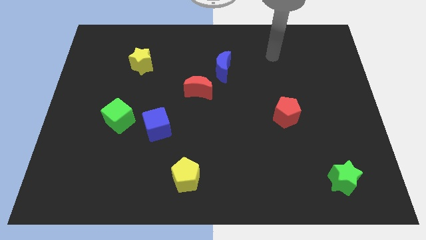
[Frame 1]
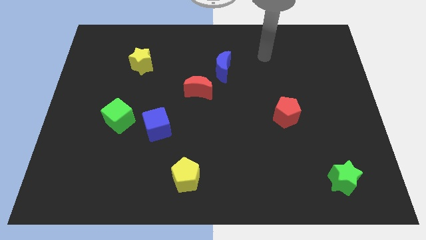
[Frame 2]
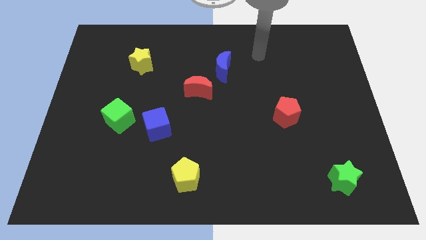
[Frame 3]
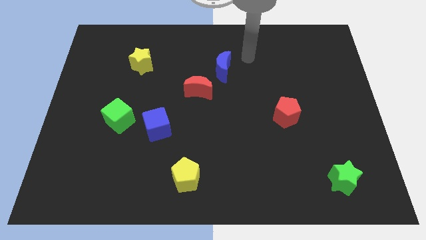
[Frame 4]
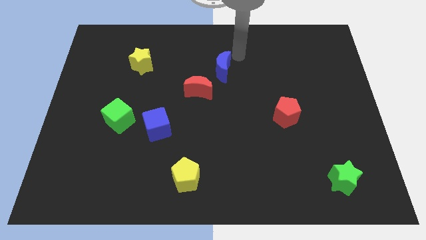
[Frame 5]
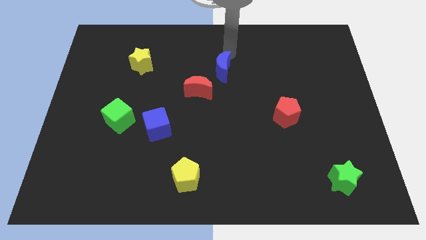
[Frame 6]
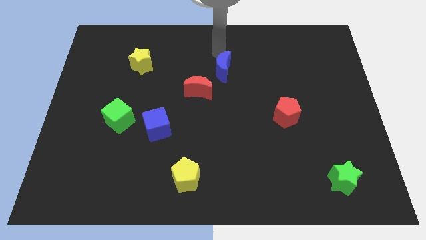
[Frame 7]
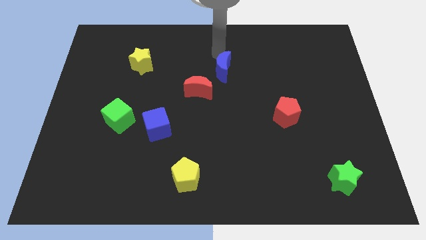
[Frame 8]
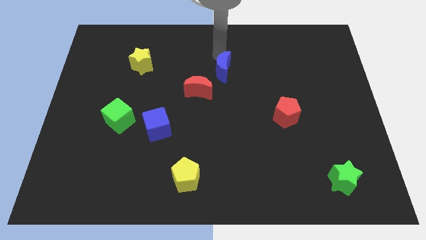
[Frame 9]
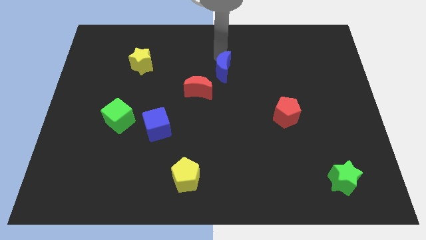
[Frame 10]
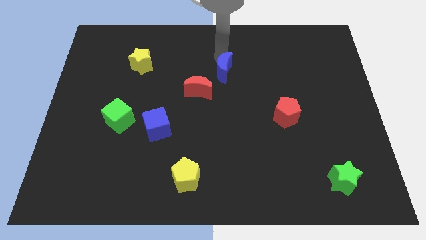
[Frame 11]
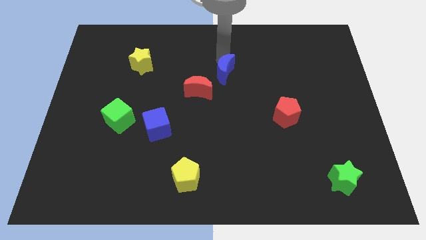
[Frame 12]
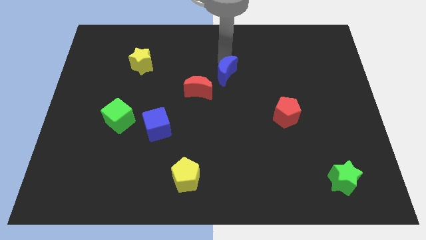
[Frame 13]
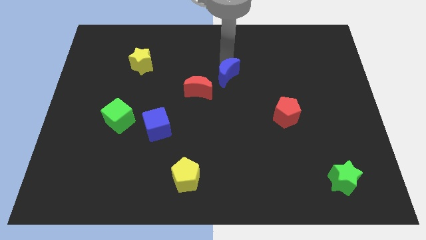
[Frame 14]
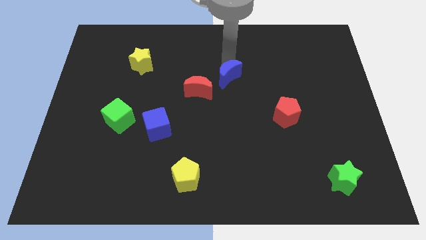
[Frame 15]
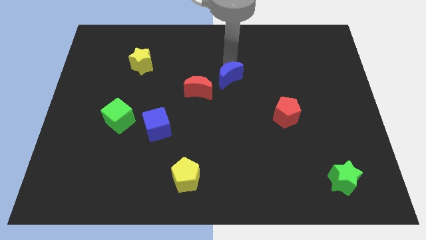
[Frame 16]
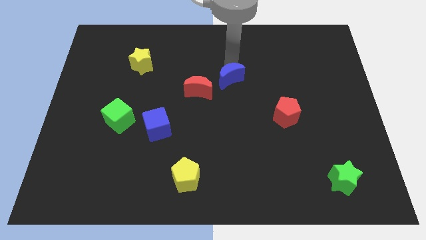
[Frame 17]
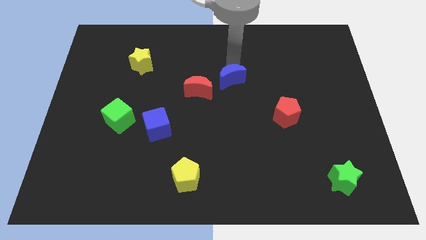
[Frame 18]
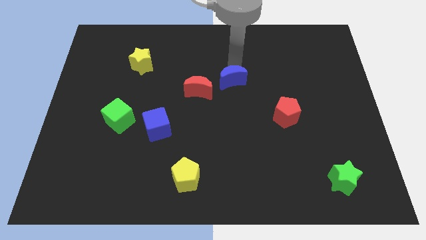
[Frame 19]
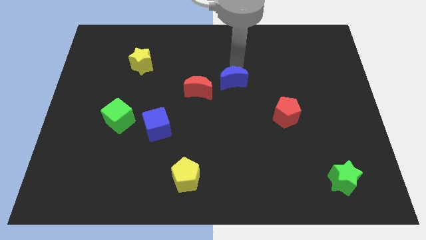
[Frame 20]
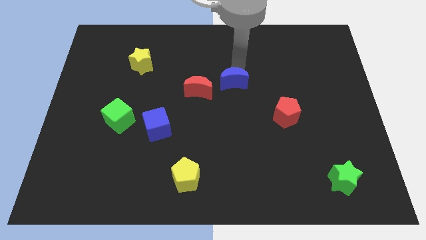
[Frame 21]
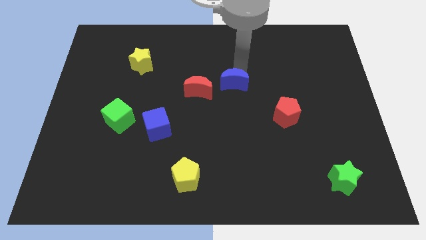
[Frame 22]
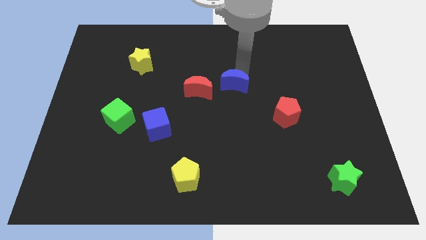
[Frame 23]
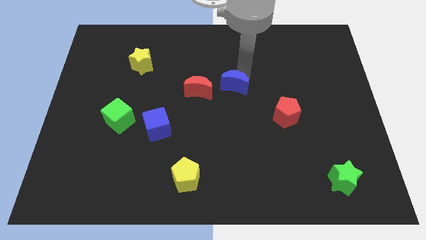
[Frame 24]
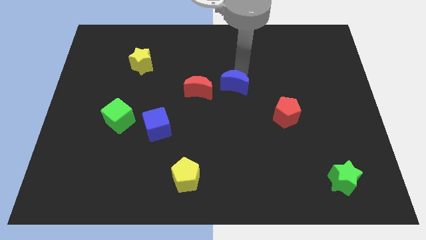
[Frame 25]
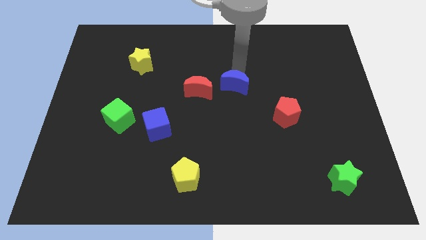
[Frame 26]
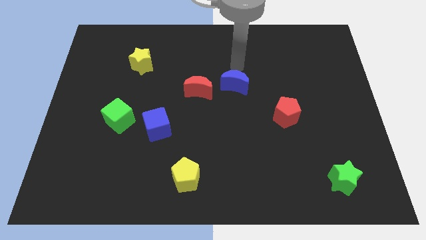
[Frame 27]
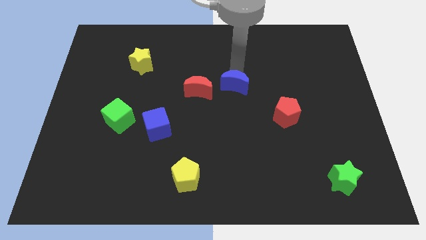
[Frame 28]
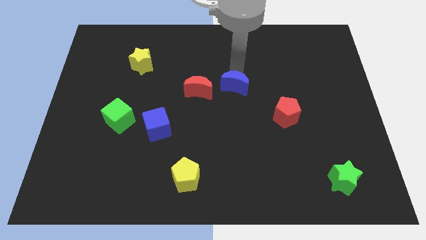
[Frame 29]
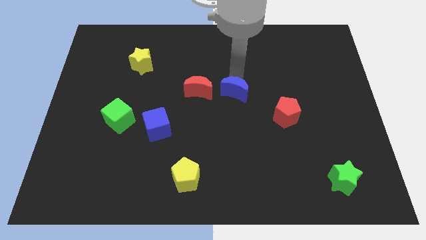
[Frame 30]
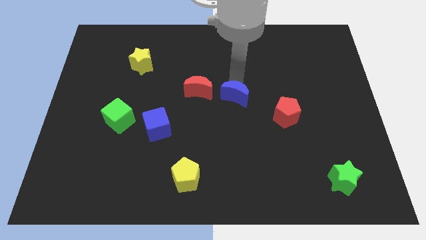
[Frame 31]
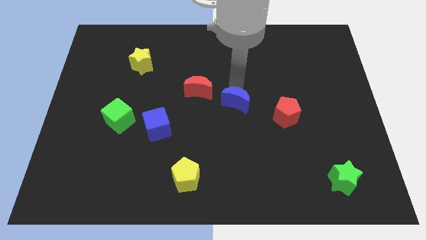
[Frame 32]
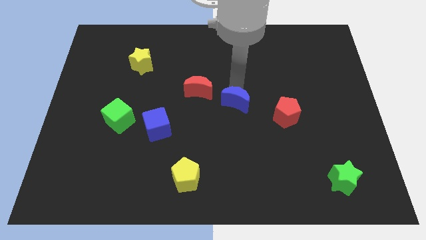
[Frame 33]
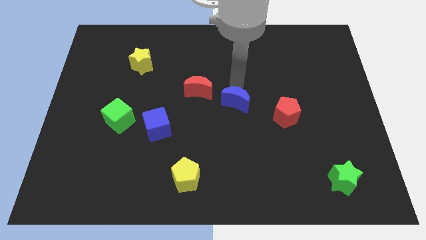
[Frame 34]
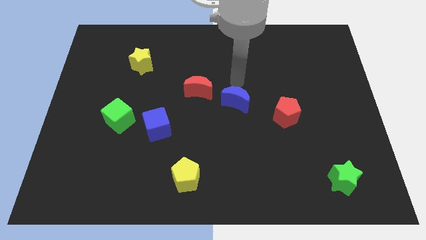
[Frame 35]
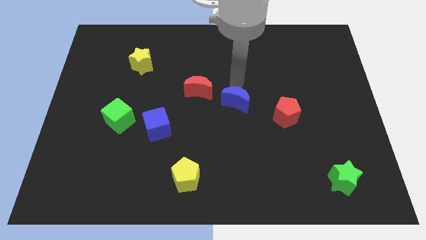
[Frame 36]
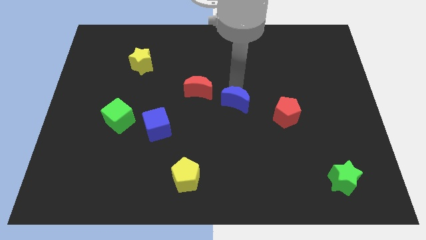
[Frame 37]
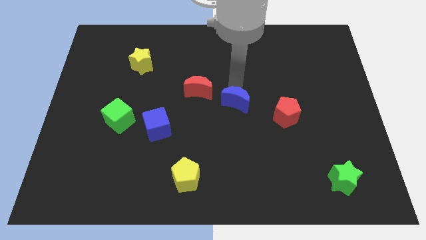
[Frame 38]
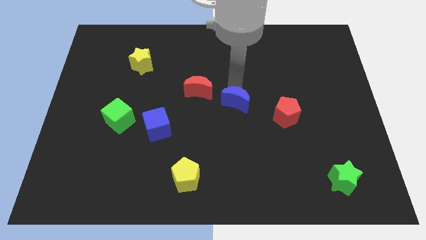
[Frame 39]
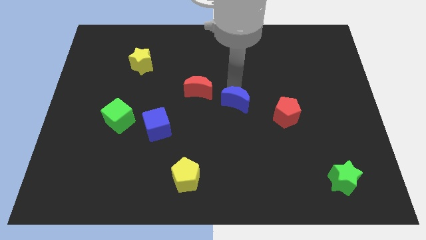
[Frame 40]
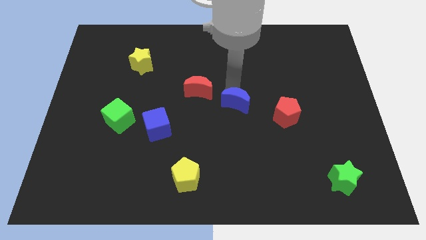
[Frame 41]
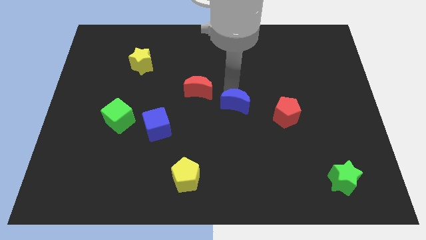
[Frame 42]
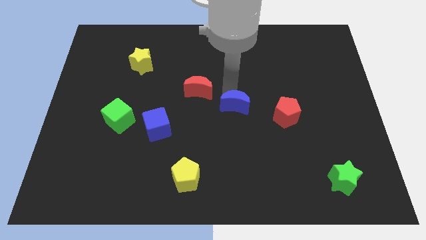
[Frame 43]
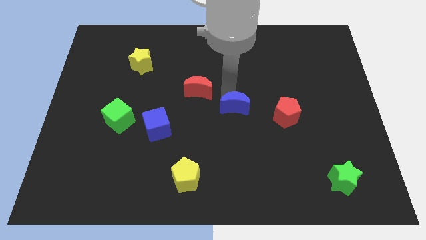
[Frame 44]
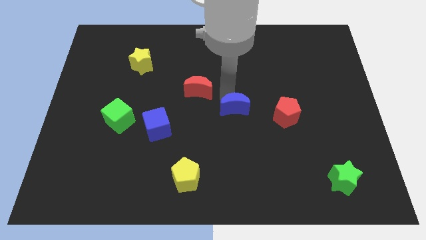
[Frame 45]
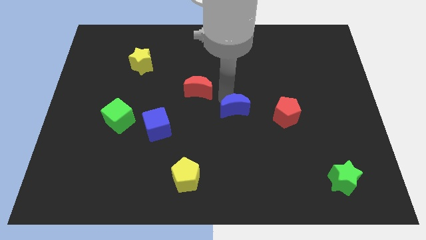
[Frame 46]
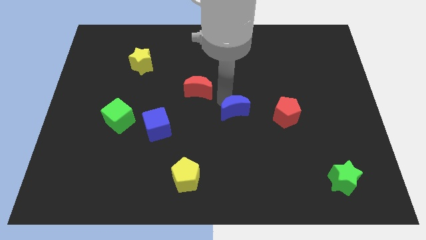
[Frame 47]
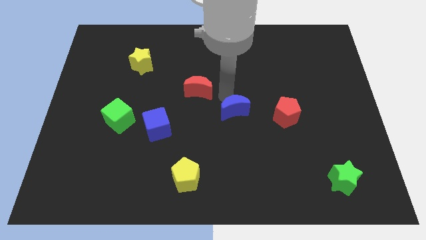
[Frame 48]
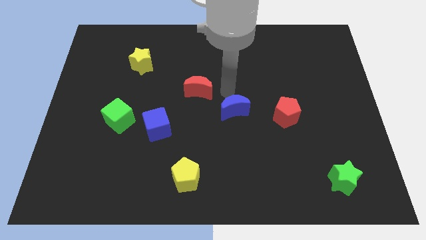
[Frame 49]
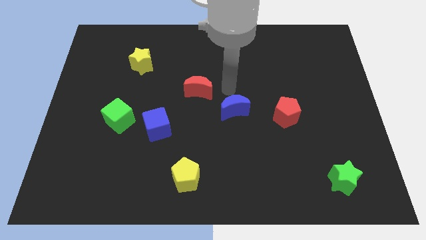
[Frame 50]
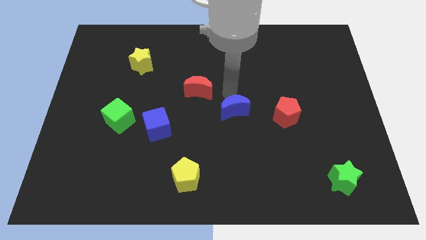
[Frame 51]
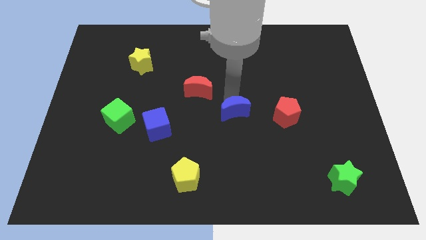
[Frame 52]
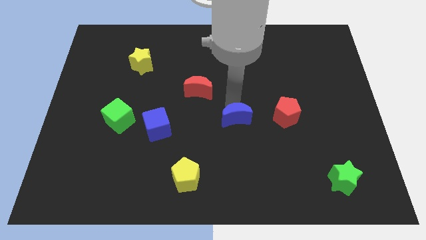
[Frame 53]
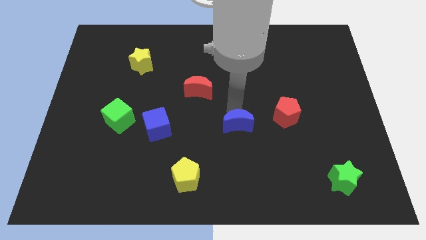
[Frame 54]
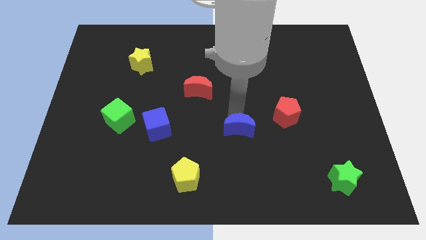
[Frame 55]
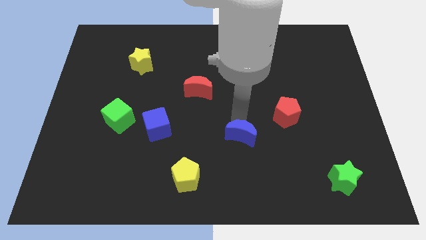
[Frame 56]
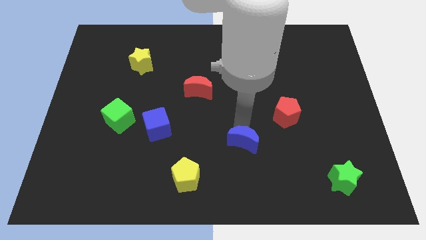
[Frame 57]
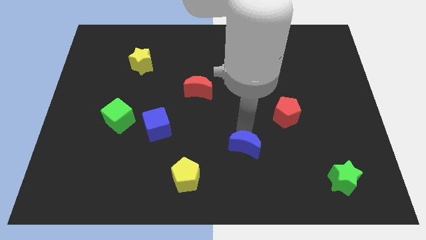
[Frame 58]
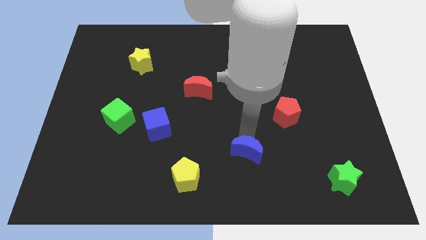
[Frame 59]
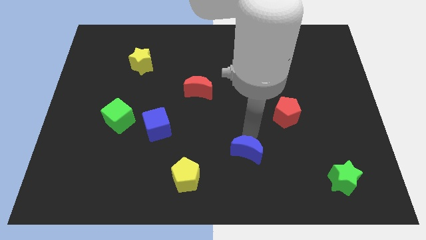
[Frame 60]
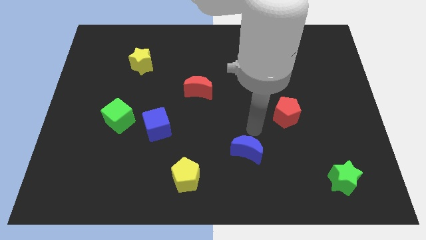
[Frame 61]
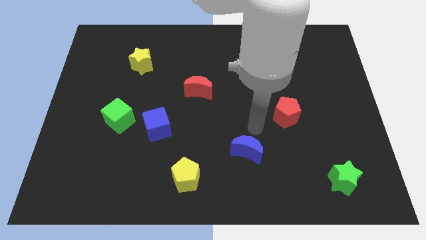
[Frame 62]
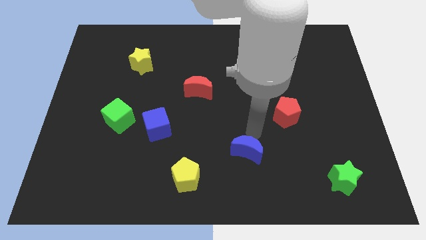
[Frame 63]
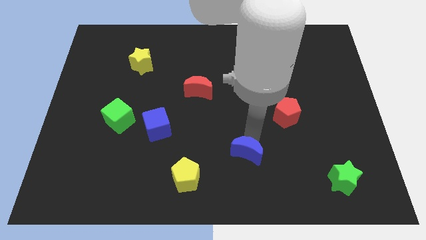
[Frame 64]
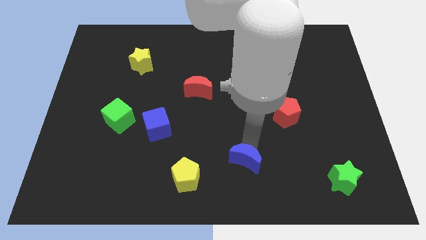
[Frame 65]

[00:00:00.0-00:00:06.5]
move the blue moon just right of the yellow pentagon

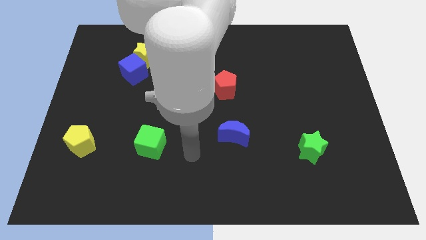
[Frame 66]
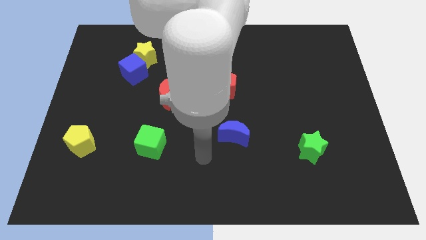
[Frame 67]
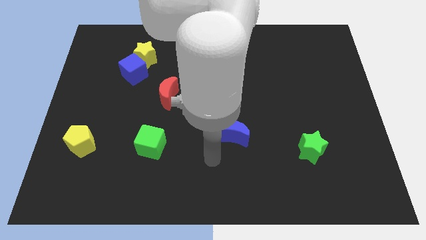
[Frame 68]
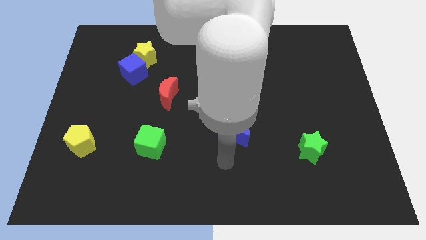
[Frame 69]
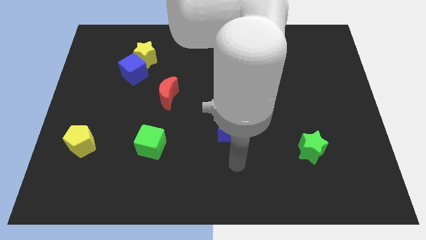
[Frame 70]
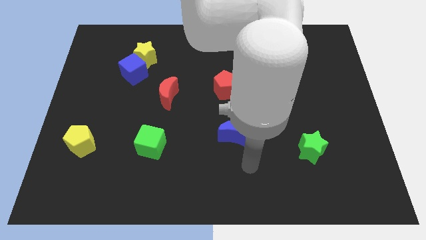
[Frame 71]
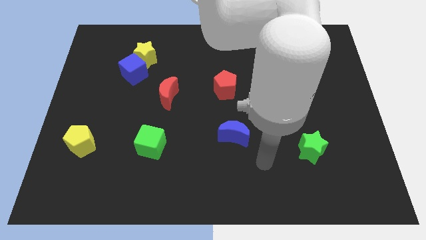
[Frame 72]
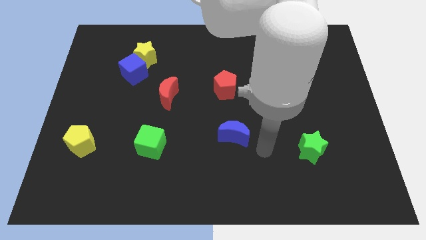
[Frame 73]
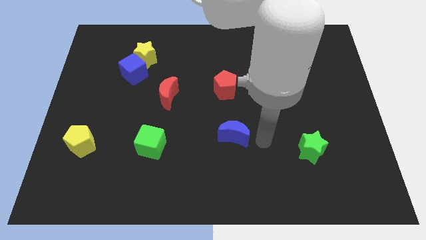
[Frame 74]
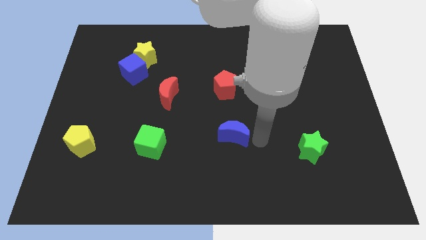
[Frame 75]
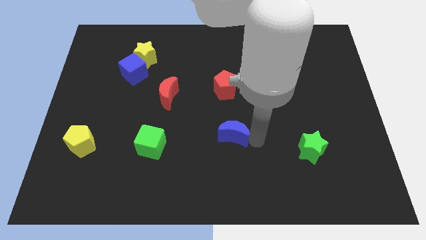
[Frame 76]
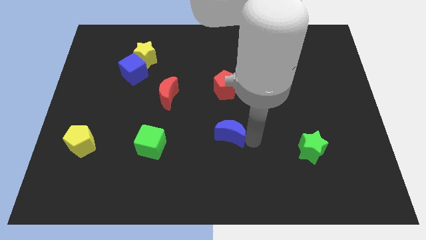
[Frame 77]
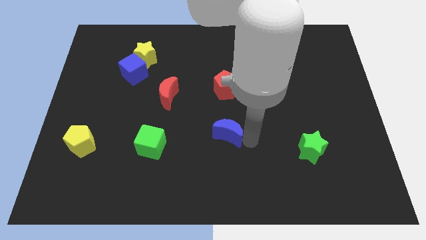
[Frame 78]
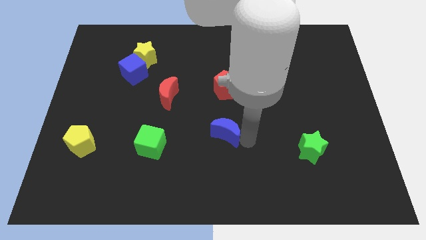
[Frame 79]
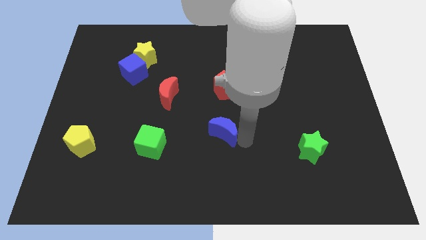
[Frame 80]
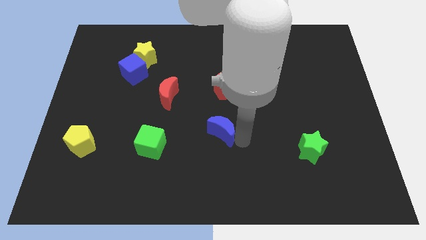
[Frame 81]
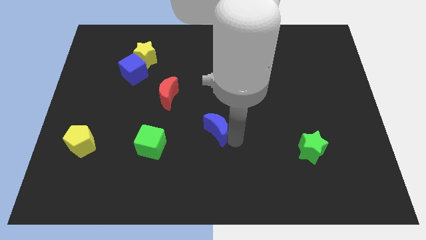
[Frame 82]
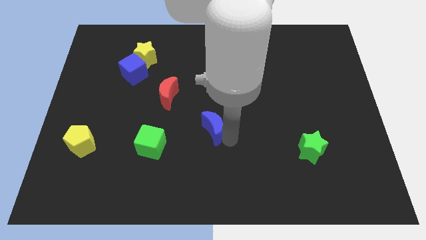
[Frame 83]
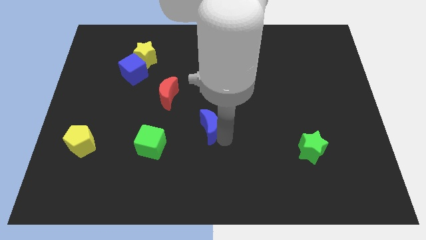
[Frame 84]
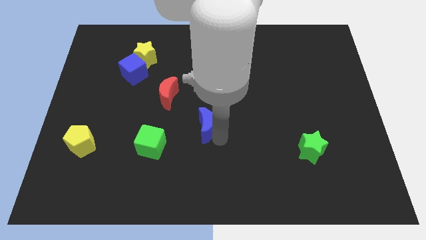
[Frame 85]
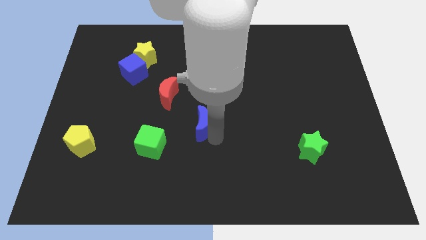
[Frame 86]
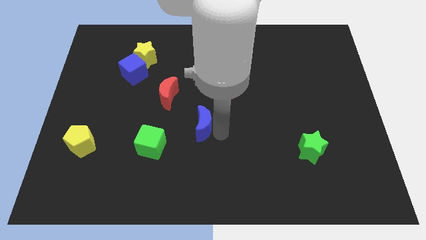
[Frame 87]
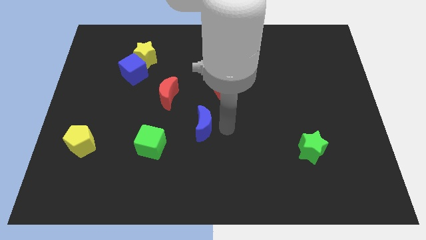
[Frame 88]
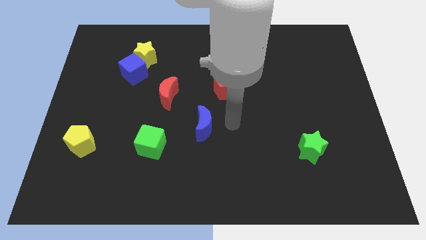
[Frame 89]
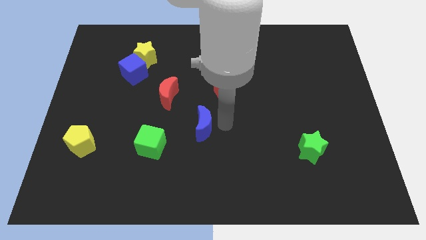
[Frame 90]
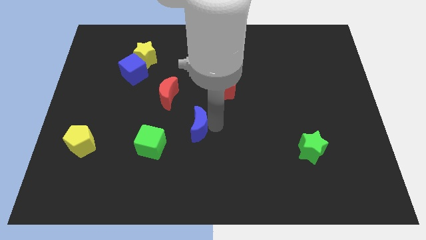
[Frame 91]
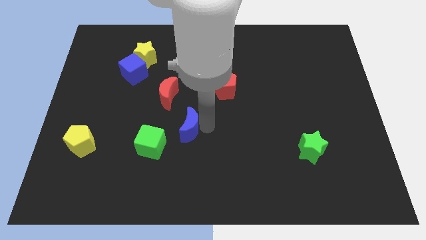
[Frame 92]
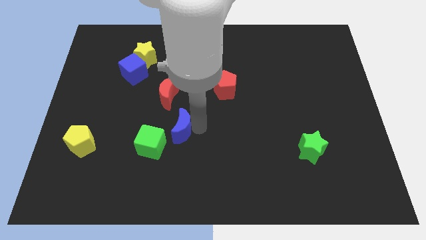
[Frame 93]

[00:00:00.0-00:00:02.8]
push the blue moon to the bottom side of the red moon
